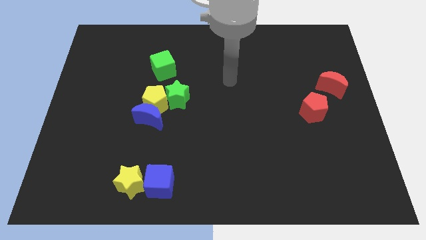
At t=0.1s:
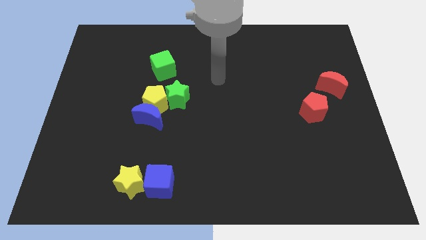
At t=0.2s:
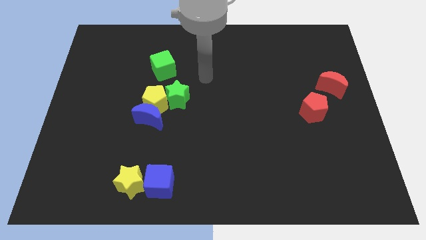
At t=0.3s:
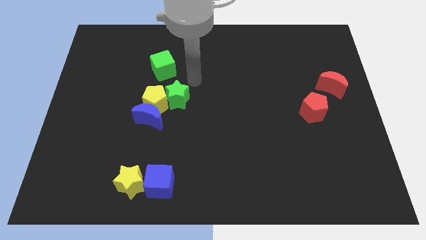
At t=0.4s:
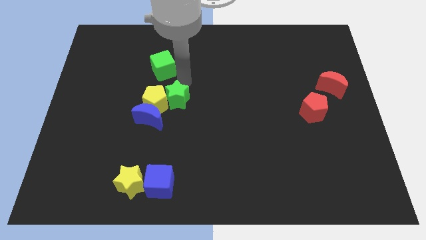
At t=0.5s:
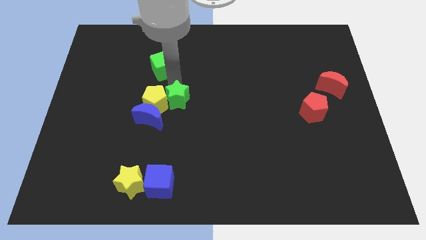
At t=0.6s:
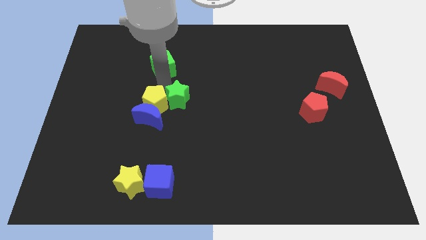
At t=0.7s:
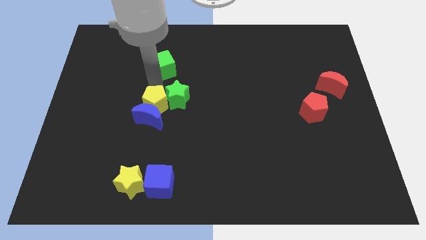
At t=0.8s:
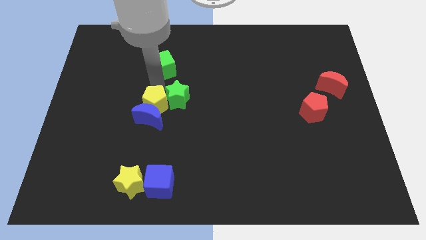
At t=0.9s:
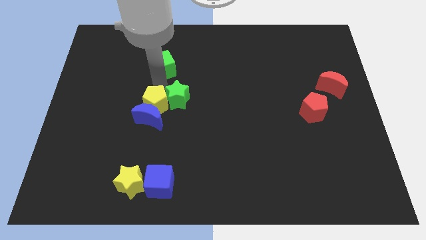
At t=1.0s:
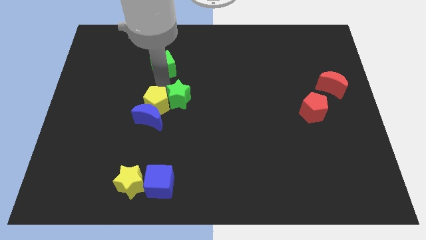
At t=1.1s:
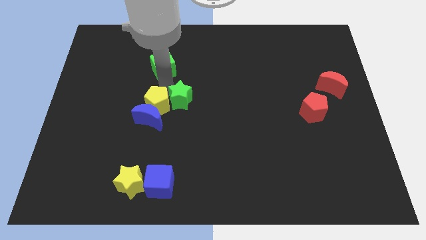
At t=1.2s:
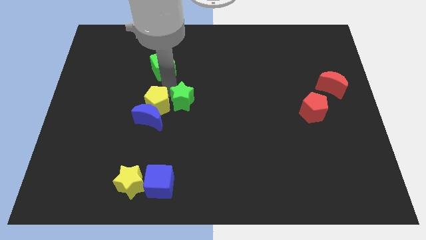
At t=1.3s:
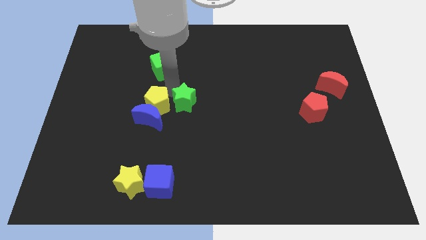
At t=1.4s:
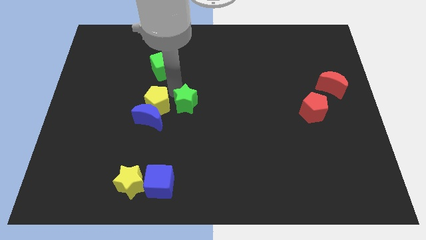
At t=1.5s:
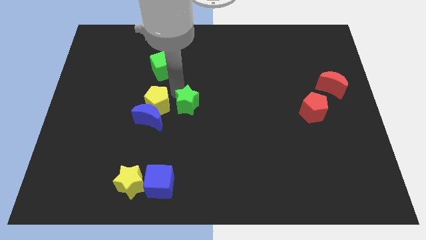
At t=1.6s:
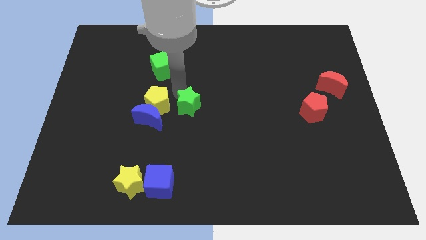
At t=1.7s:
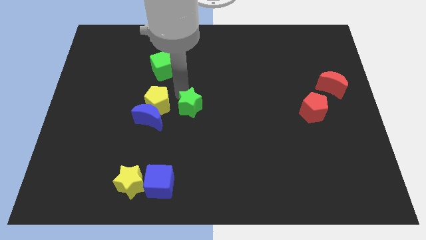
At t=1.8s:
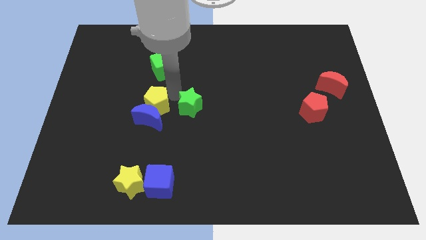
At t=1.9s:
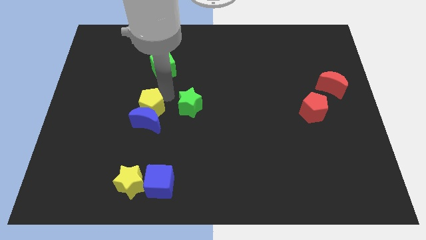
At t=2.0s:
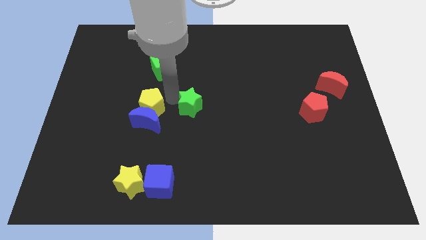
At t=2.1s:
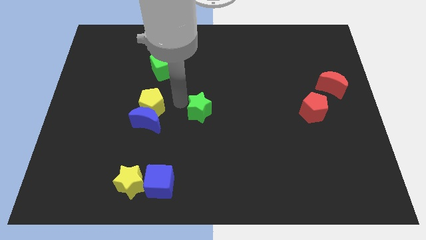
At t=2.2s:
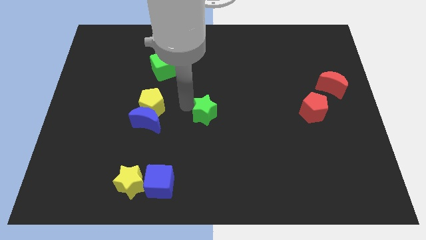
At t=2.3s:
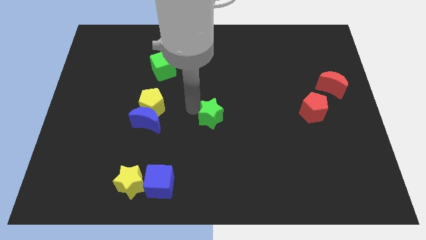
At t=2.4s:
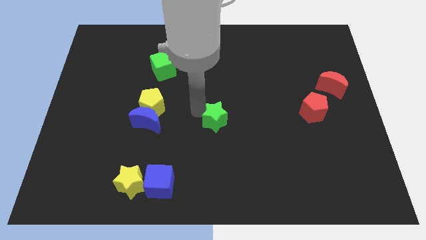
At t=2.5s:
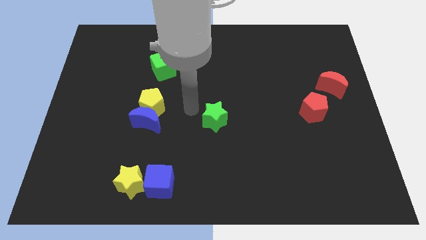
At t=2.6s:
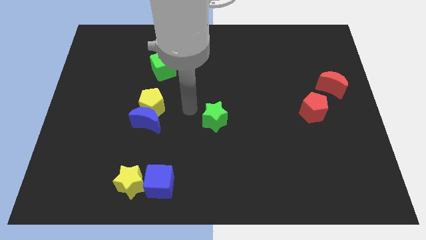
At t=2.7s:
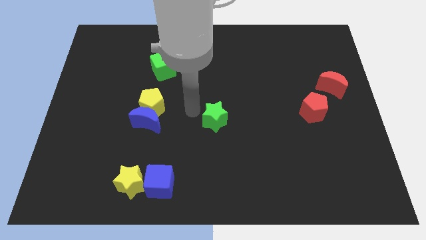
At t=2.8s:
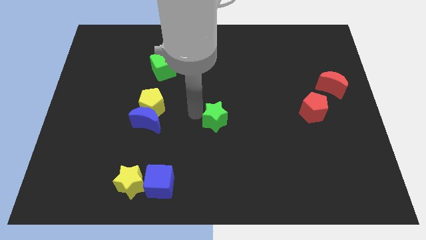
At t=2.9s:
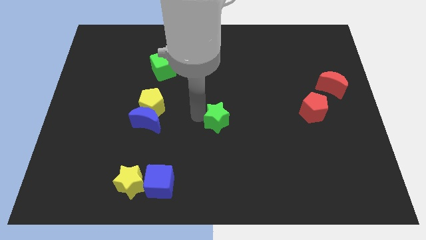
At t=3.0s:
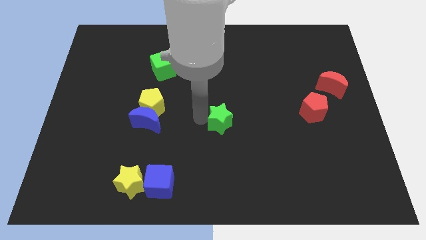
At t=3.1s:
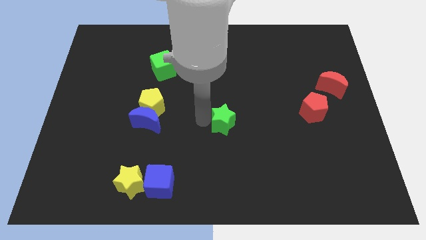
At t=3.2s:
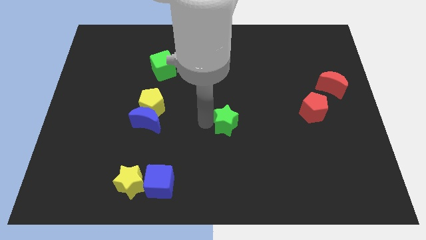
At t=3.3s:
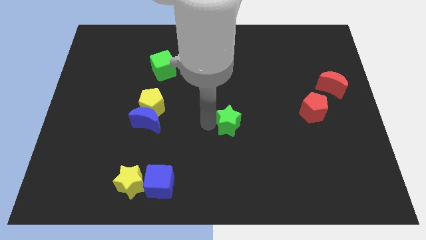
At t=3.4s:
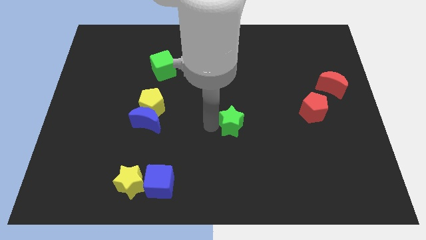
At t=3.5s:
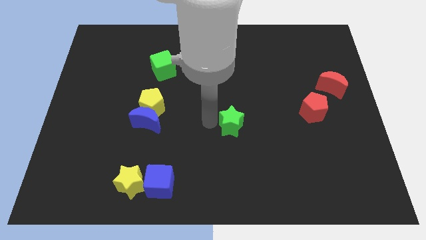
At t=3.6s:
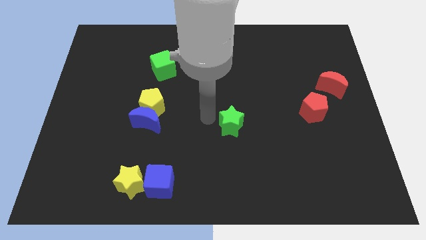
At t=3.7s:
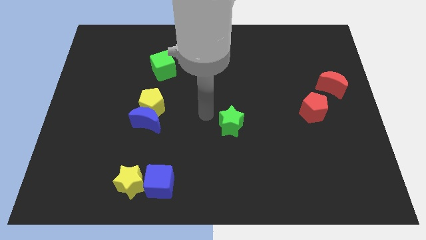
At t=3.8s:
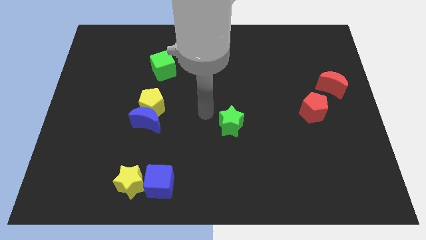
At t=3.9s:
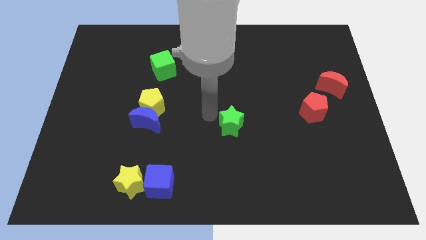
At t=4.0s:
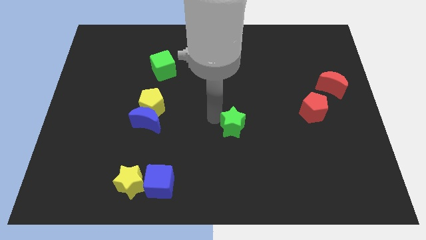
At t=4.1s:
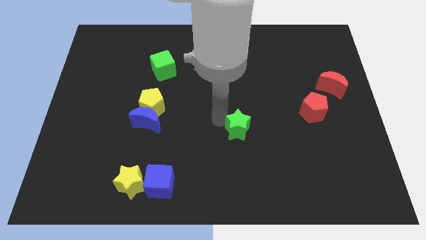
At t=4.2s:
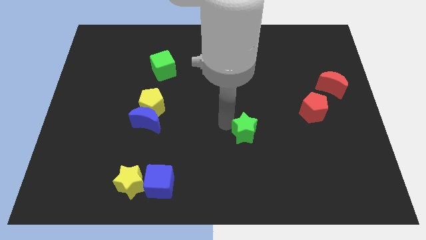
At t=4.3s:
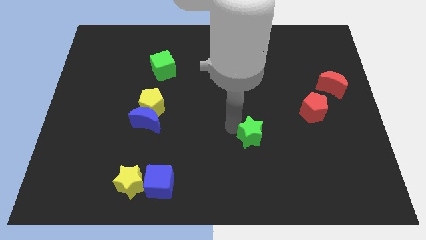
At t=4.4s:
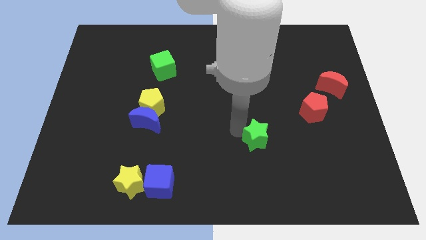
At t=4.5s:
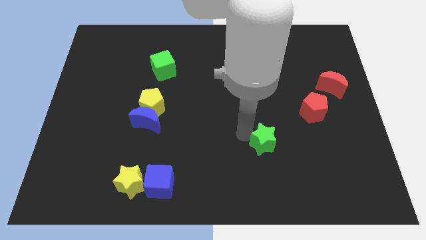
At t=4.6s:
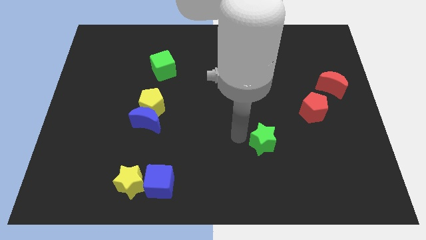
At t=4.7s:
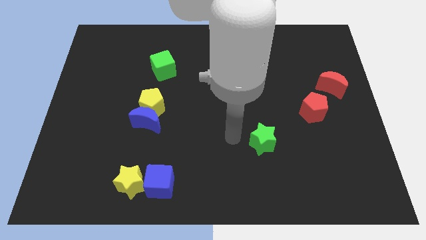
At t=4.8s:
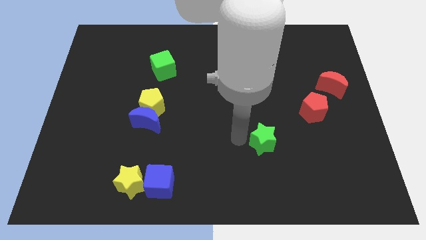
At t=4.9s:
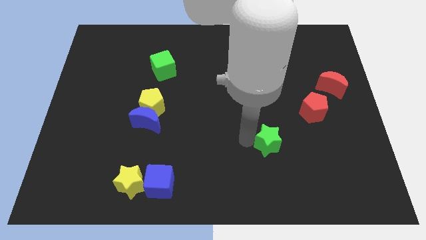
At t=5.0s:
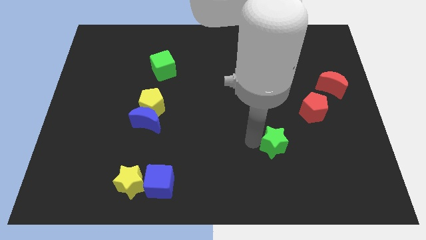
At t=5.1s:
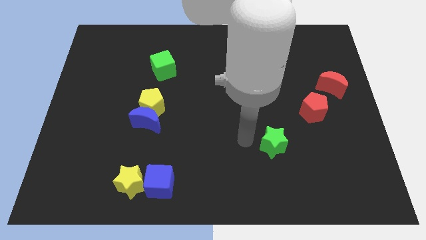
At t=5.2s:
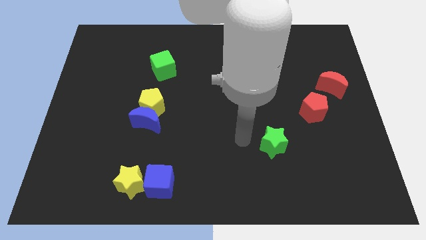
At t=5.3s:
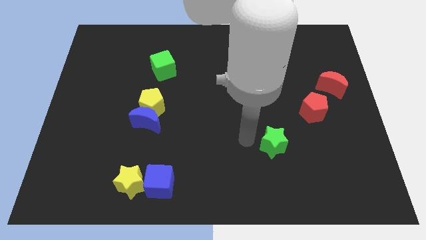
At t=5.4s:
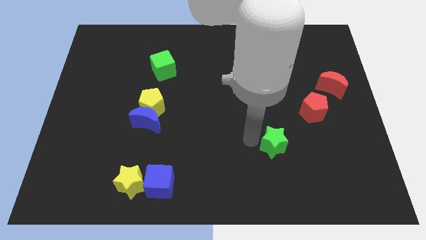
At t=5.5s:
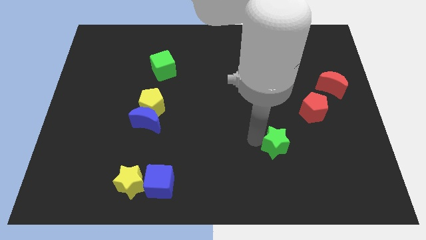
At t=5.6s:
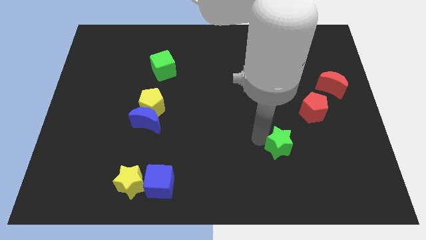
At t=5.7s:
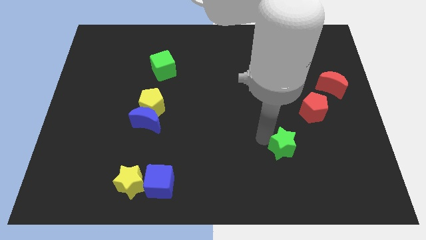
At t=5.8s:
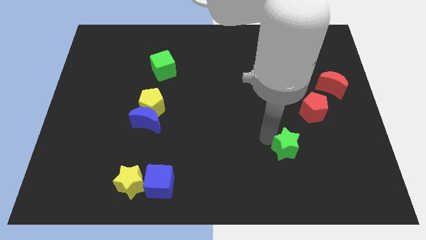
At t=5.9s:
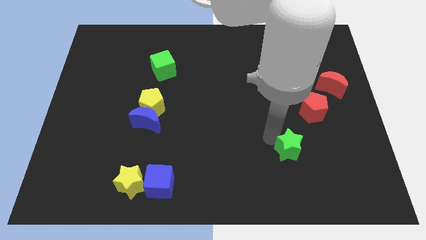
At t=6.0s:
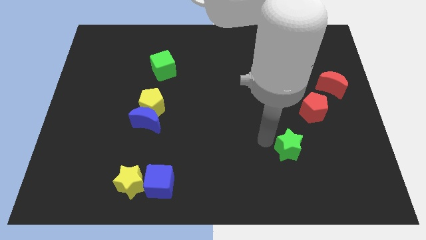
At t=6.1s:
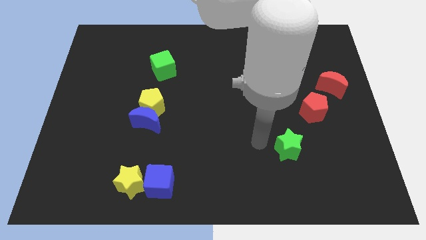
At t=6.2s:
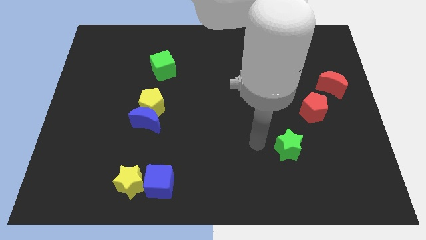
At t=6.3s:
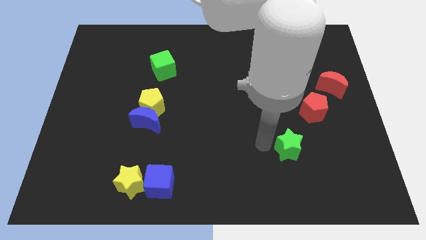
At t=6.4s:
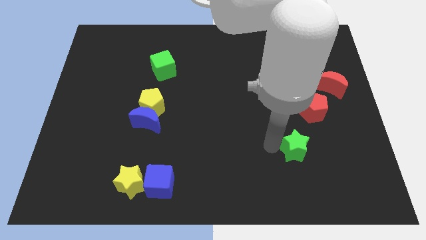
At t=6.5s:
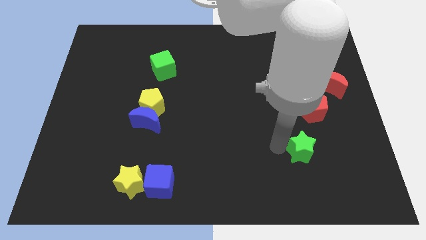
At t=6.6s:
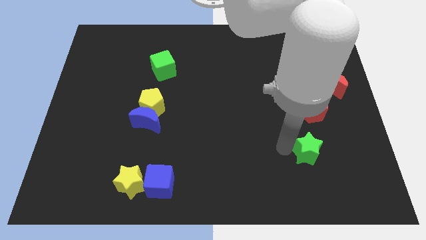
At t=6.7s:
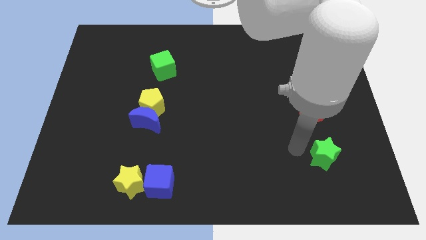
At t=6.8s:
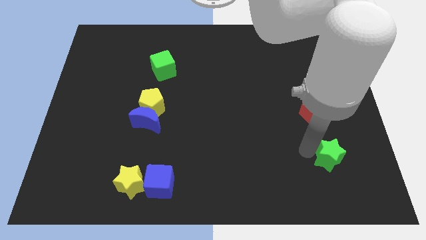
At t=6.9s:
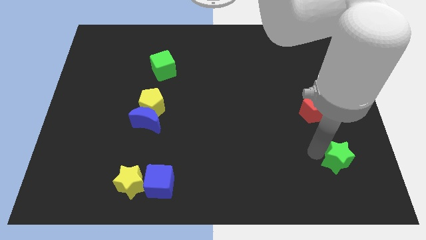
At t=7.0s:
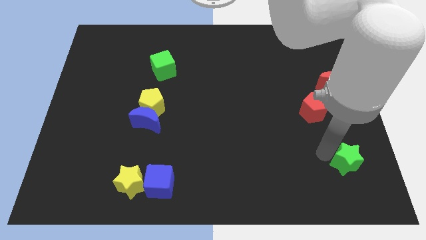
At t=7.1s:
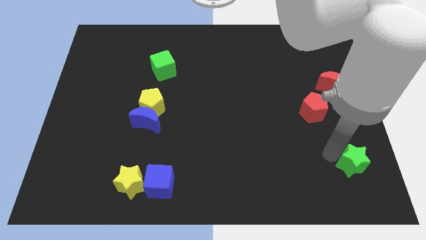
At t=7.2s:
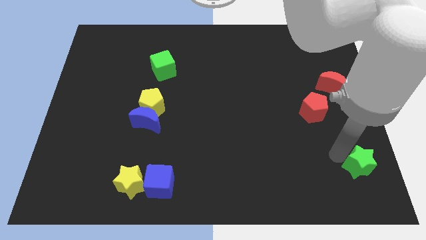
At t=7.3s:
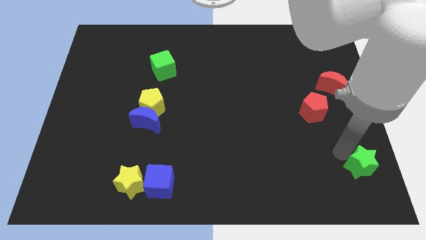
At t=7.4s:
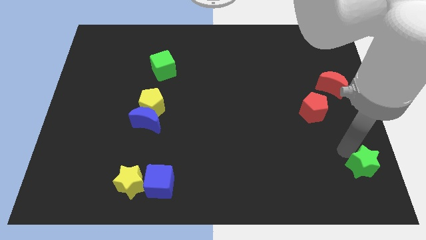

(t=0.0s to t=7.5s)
slide the green star to the bottom right
